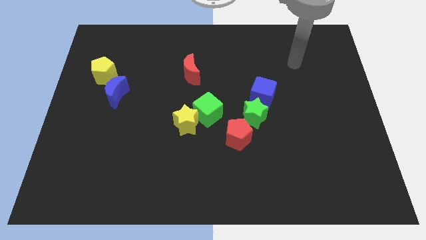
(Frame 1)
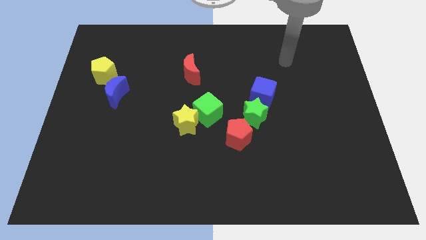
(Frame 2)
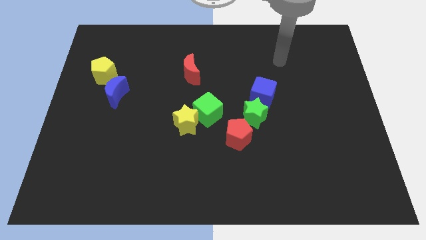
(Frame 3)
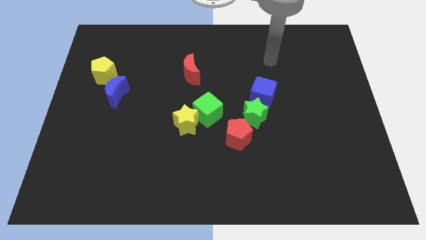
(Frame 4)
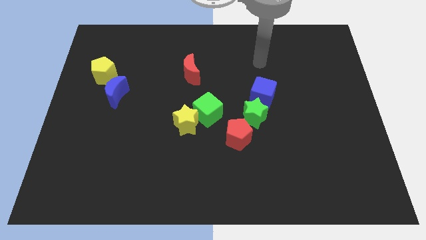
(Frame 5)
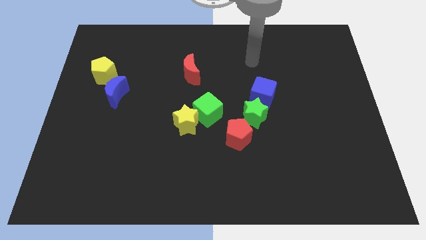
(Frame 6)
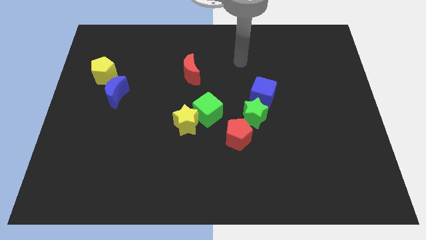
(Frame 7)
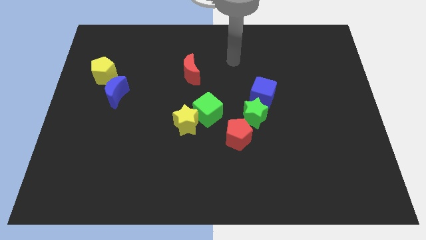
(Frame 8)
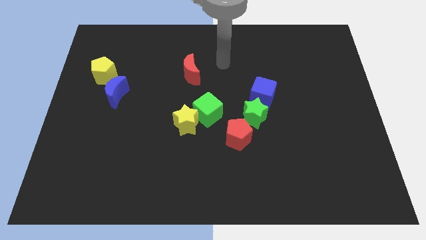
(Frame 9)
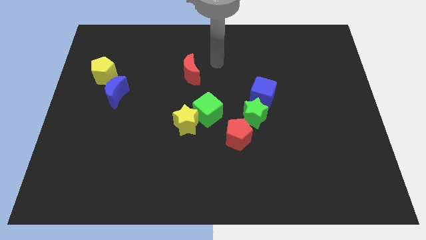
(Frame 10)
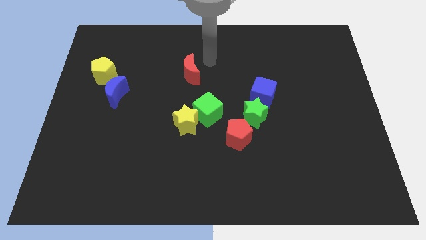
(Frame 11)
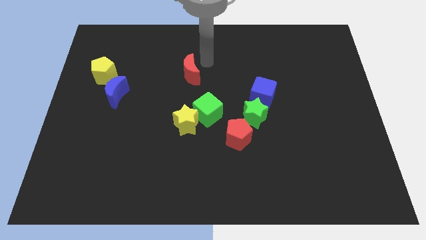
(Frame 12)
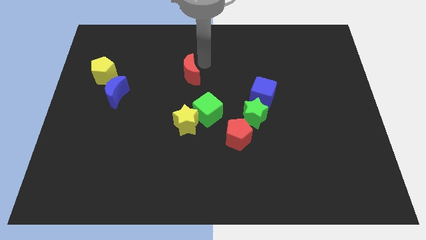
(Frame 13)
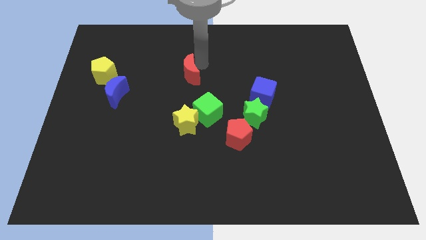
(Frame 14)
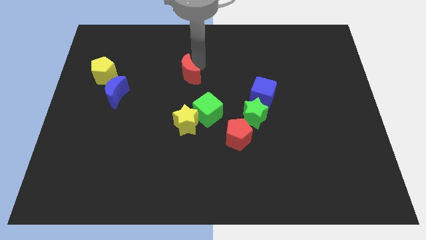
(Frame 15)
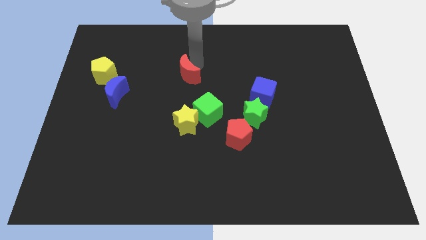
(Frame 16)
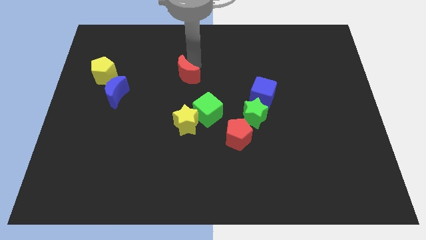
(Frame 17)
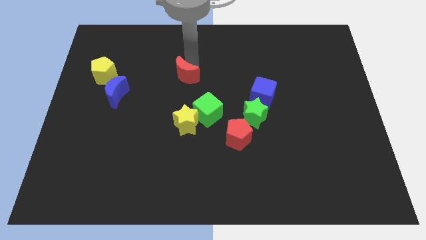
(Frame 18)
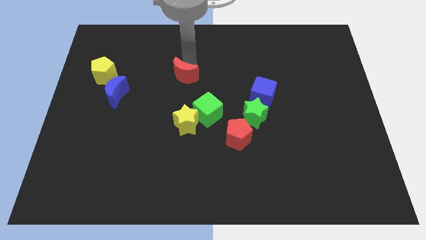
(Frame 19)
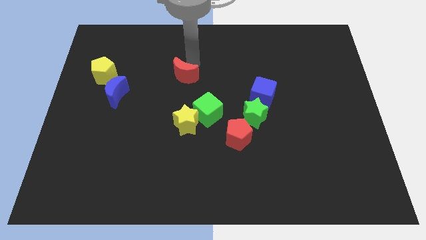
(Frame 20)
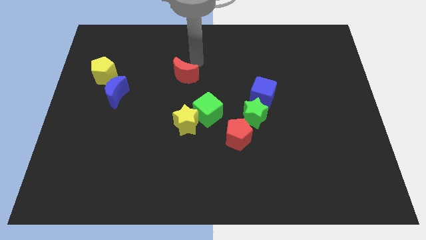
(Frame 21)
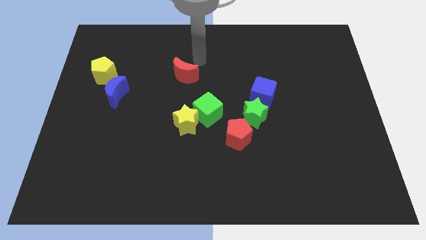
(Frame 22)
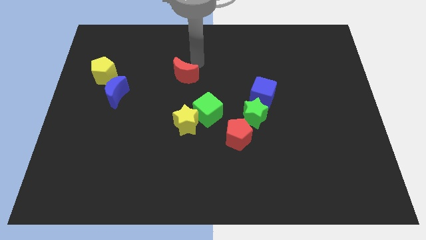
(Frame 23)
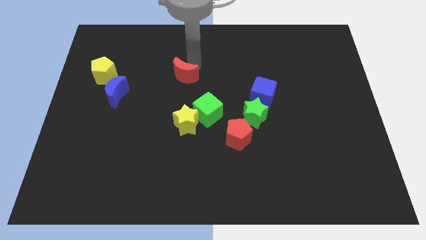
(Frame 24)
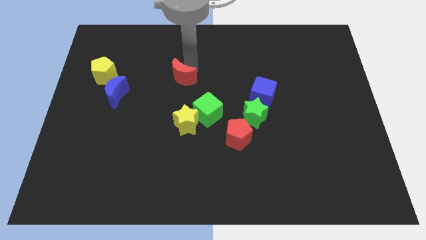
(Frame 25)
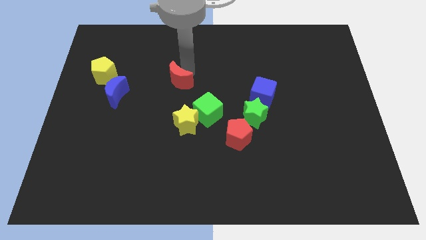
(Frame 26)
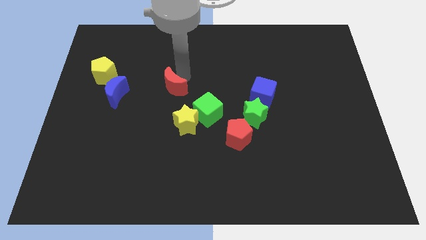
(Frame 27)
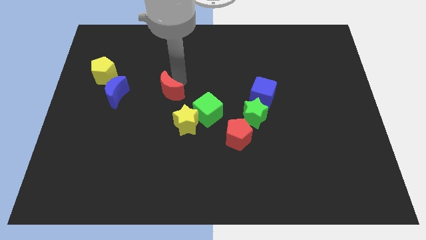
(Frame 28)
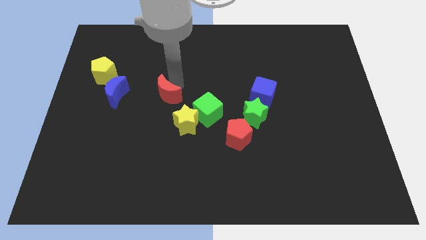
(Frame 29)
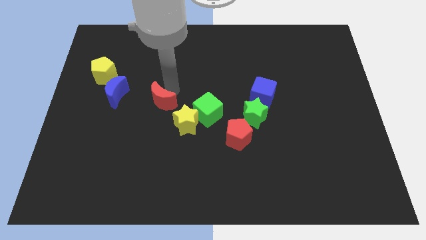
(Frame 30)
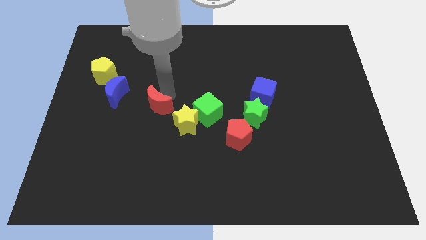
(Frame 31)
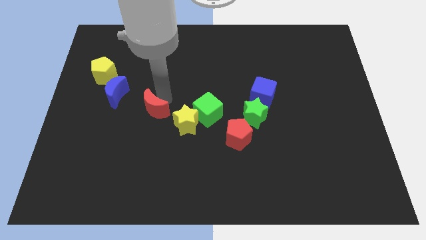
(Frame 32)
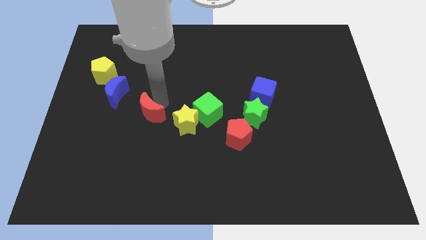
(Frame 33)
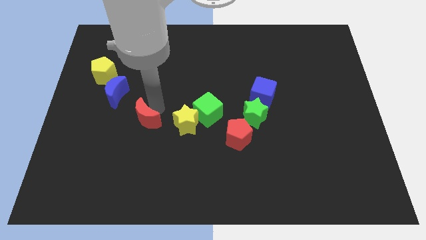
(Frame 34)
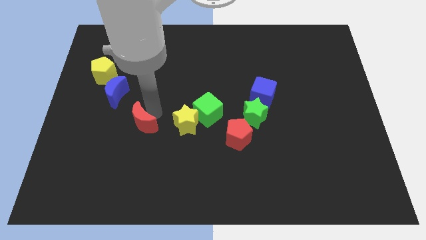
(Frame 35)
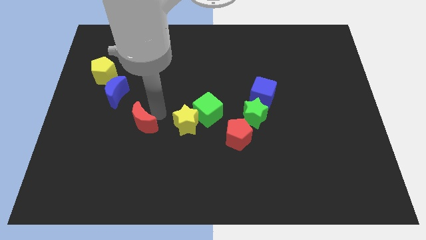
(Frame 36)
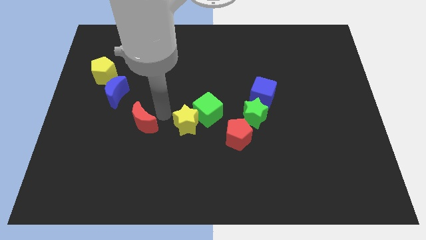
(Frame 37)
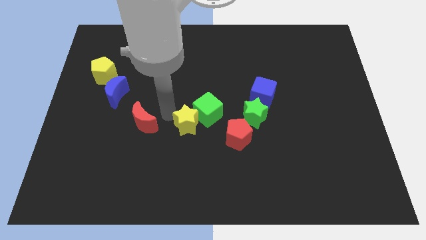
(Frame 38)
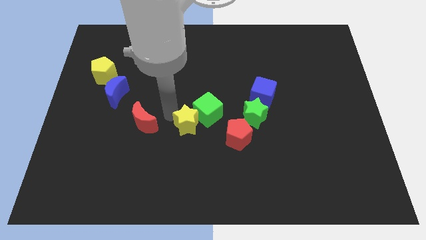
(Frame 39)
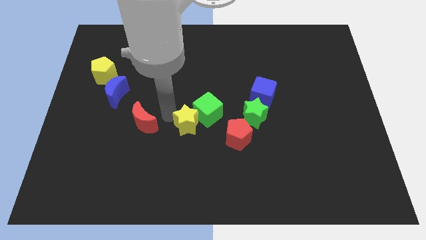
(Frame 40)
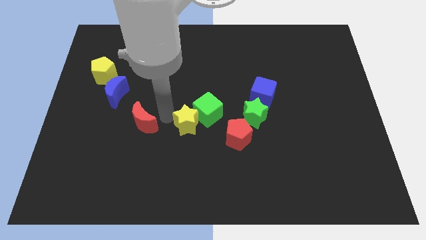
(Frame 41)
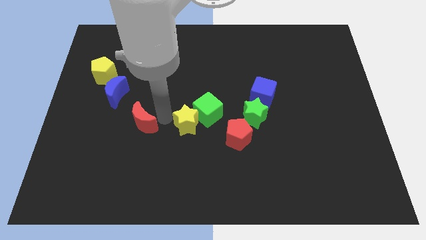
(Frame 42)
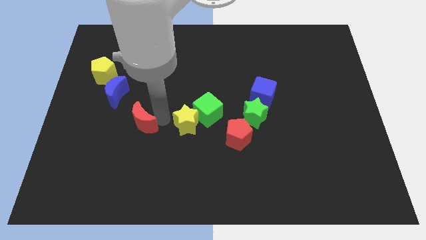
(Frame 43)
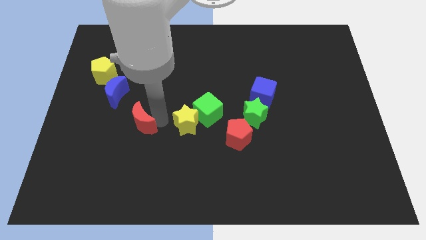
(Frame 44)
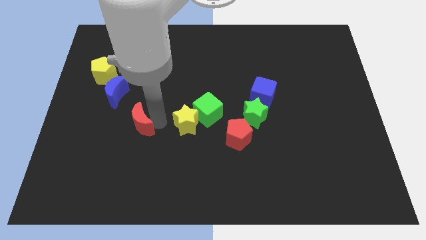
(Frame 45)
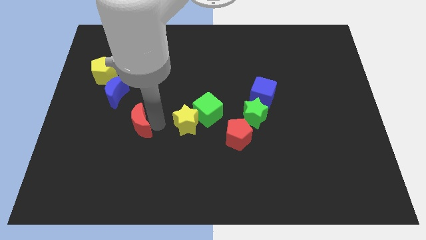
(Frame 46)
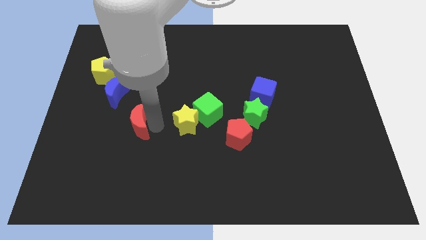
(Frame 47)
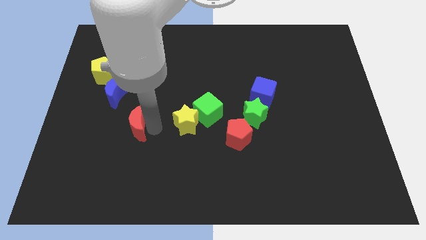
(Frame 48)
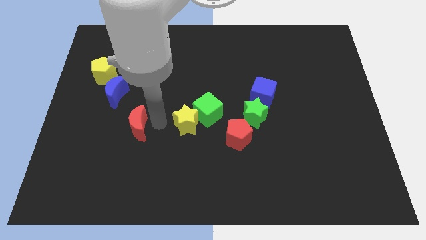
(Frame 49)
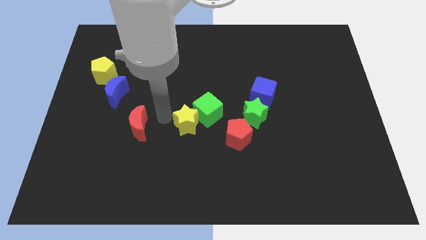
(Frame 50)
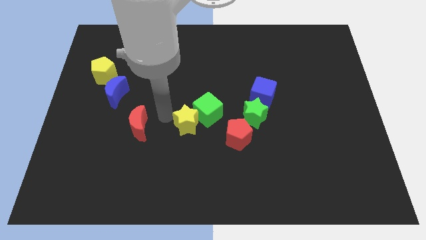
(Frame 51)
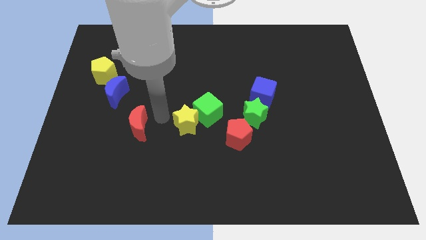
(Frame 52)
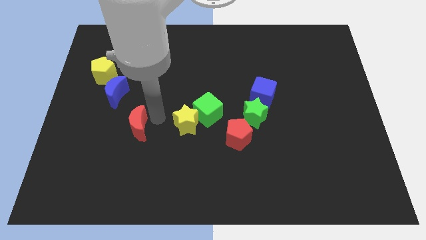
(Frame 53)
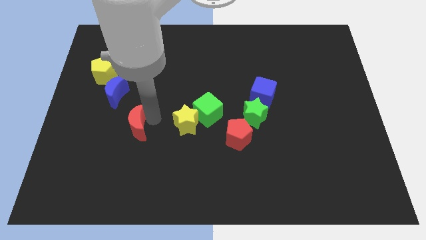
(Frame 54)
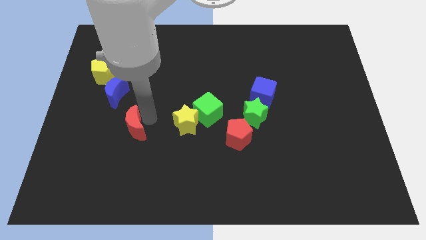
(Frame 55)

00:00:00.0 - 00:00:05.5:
move the red moon diagonally down and to the left

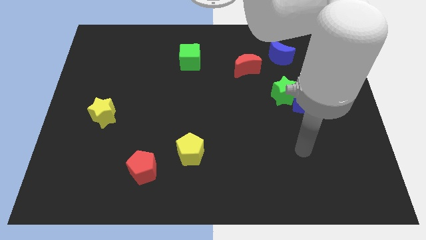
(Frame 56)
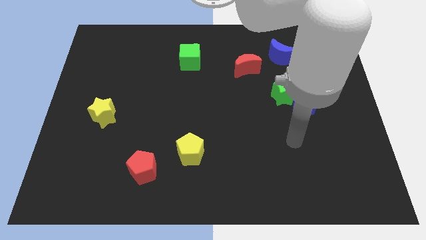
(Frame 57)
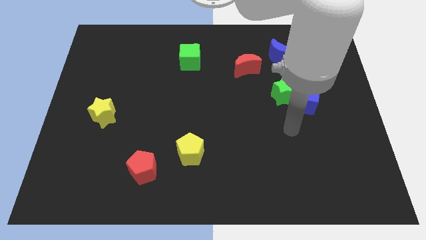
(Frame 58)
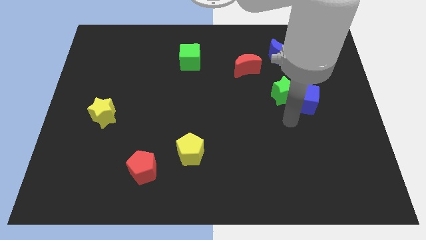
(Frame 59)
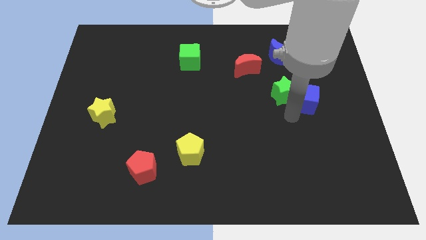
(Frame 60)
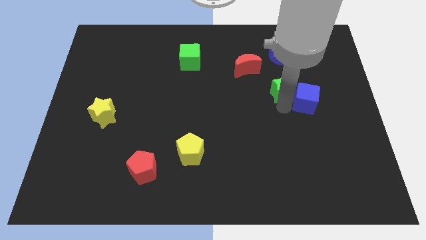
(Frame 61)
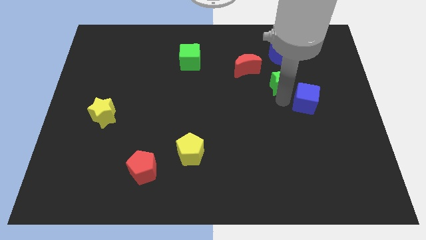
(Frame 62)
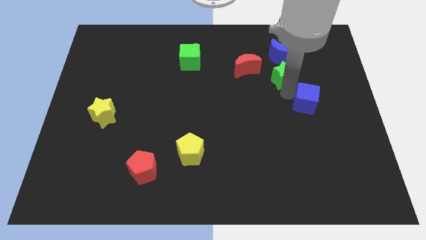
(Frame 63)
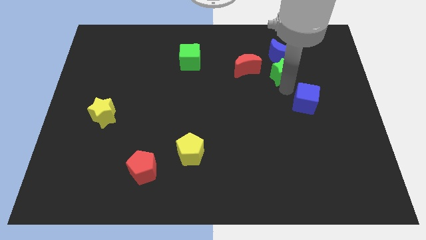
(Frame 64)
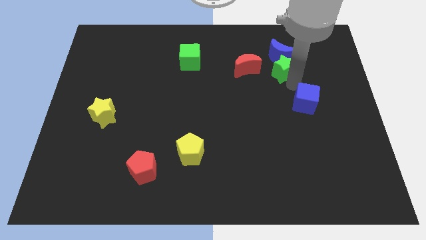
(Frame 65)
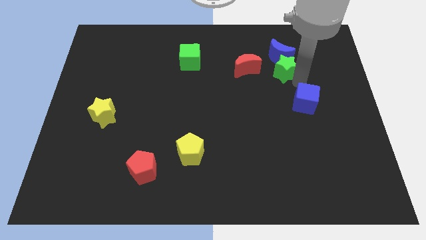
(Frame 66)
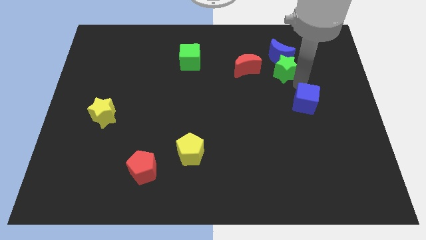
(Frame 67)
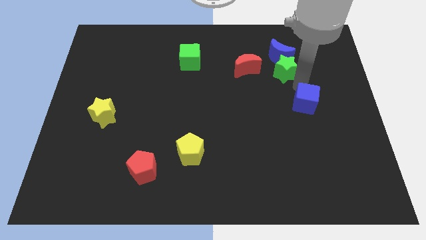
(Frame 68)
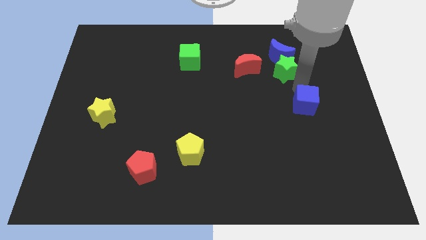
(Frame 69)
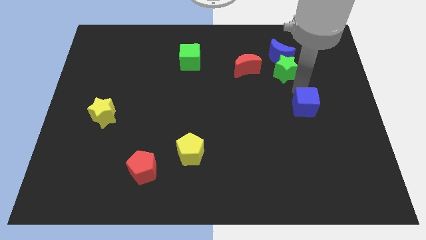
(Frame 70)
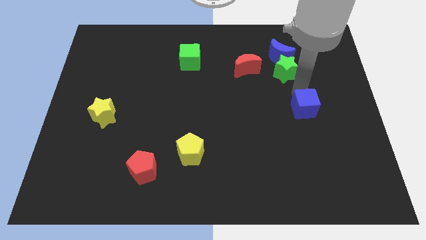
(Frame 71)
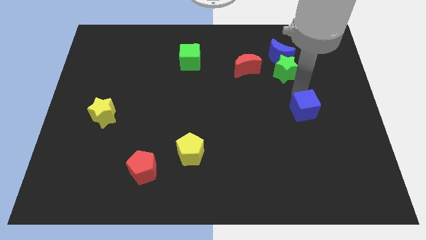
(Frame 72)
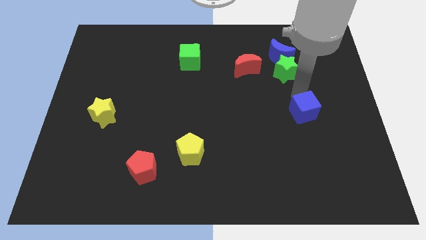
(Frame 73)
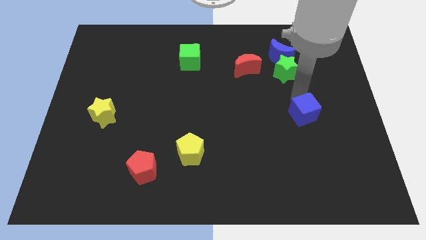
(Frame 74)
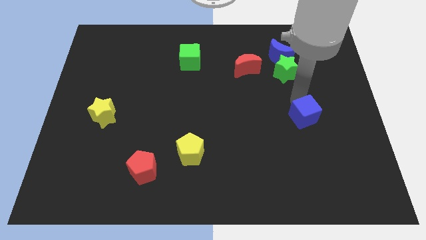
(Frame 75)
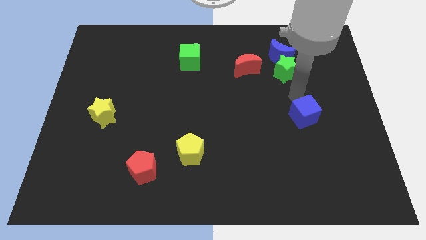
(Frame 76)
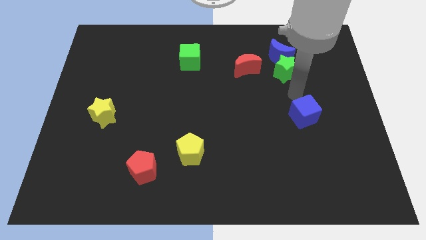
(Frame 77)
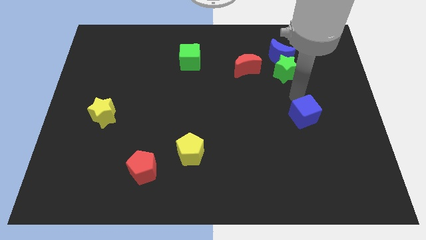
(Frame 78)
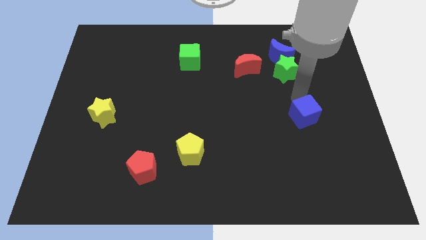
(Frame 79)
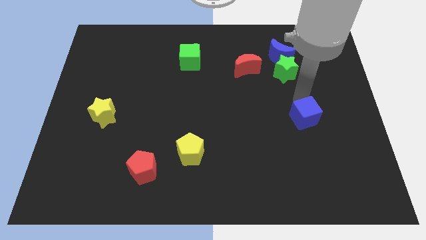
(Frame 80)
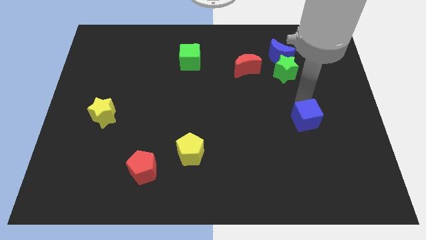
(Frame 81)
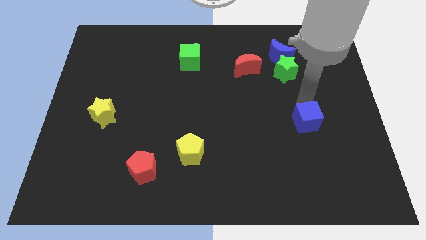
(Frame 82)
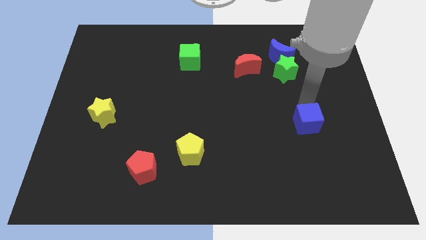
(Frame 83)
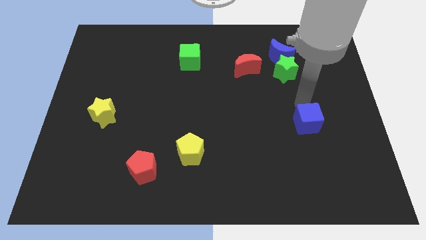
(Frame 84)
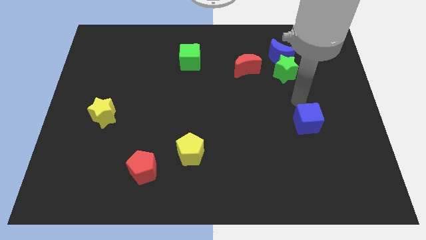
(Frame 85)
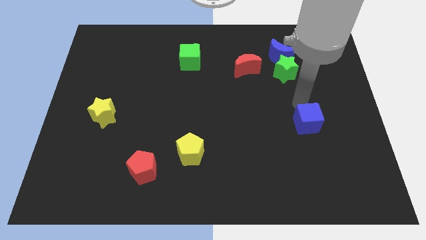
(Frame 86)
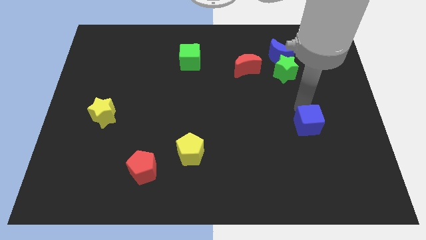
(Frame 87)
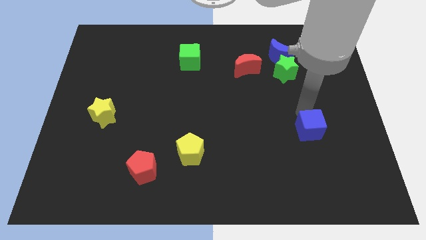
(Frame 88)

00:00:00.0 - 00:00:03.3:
slide the blue cube a little downwards
